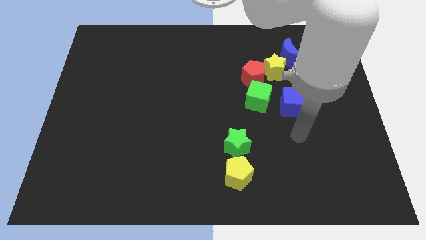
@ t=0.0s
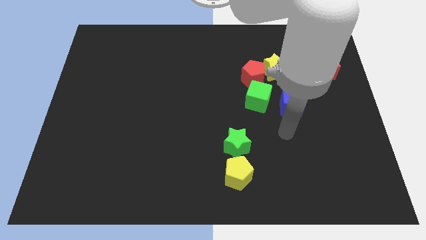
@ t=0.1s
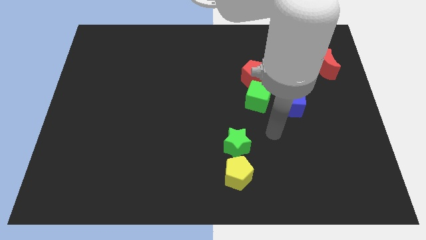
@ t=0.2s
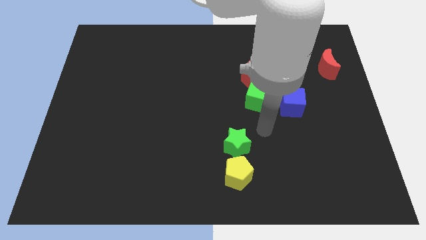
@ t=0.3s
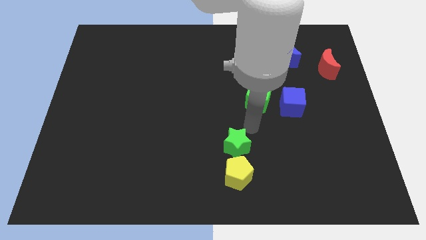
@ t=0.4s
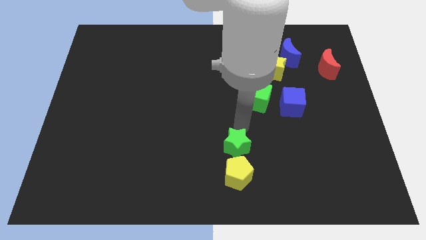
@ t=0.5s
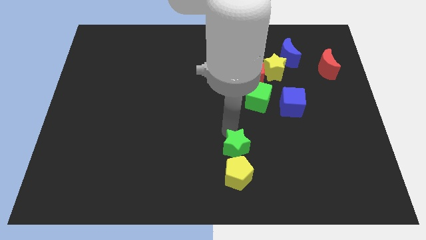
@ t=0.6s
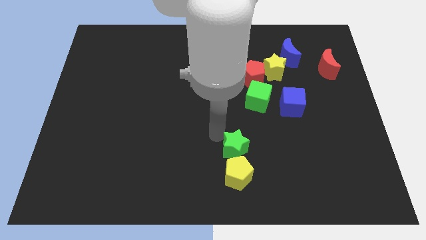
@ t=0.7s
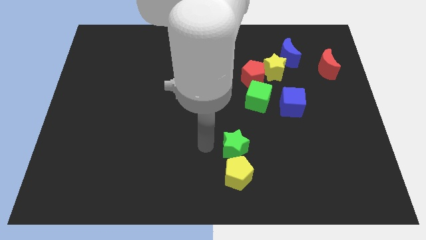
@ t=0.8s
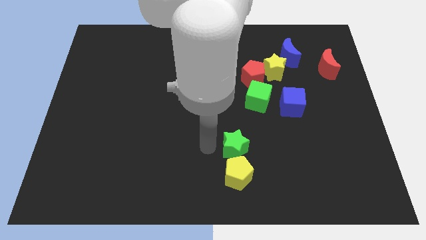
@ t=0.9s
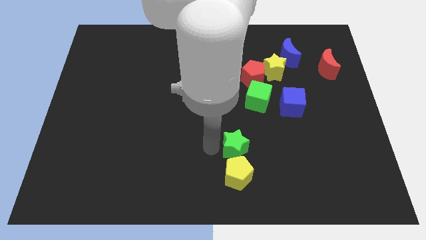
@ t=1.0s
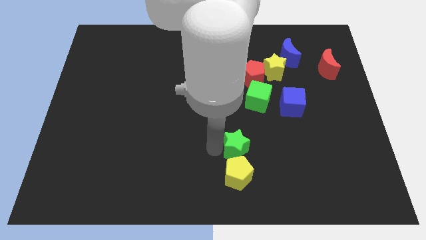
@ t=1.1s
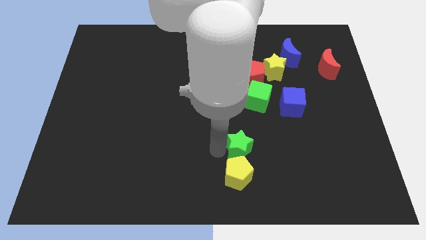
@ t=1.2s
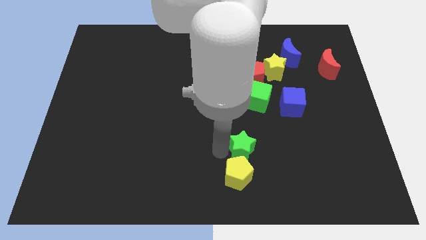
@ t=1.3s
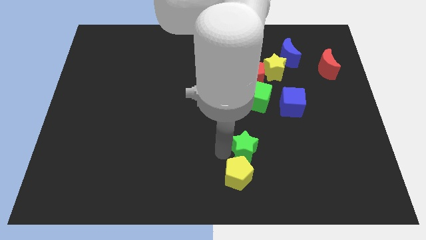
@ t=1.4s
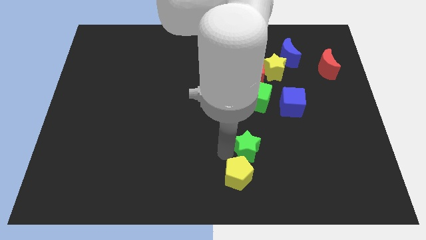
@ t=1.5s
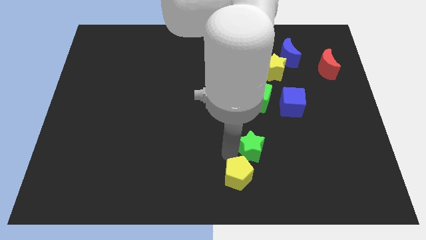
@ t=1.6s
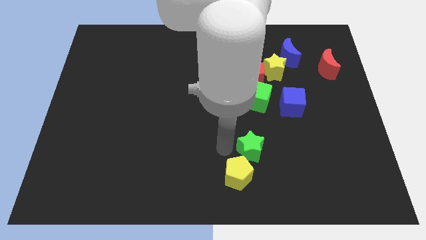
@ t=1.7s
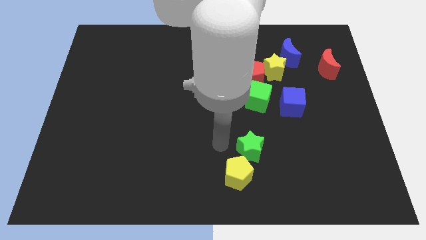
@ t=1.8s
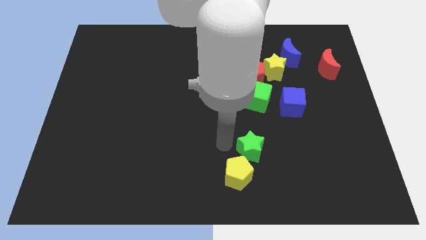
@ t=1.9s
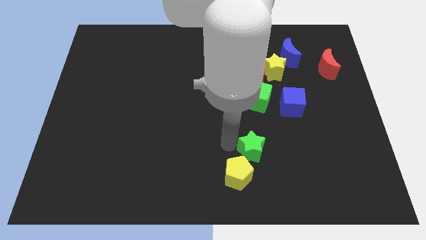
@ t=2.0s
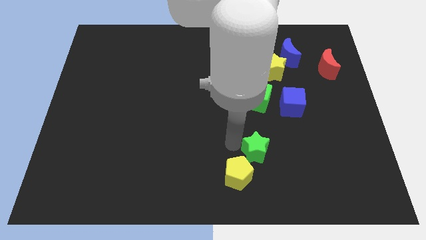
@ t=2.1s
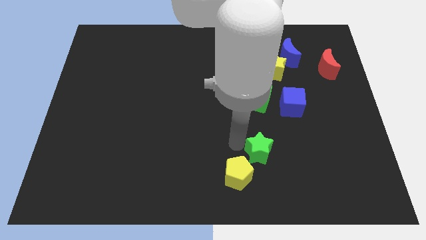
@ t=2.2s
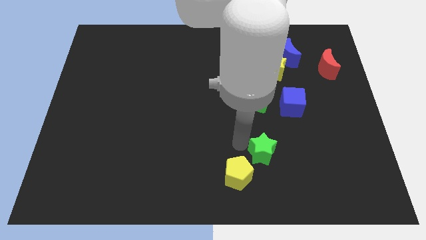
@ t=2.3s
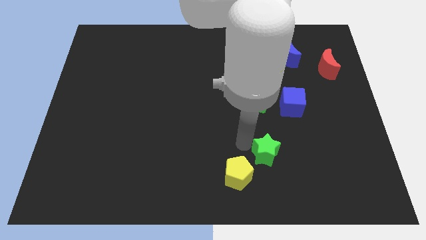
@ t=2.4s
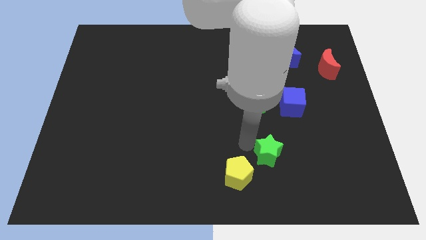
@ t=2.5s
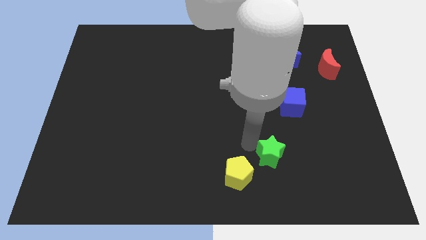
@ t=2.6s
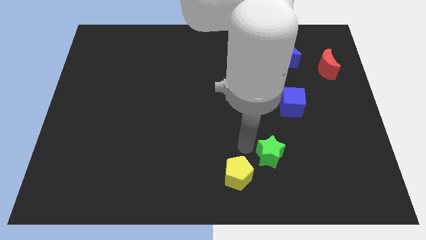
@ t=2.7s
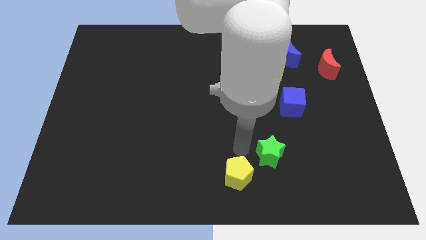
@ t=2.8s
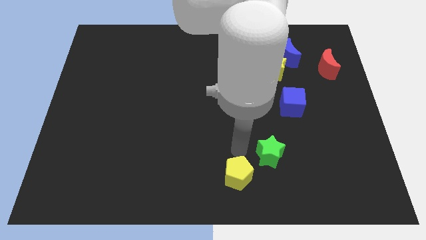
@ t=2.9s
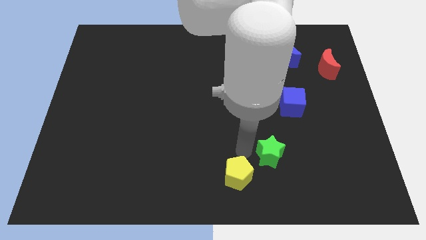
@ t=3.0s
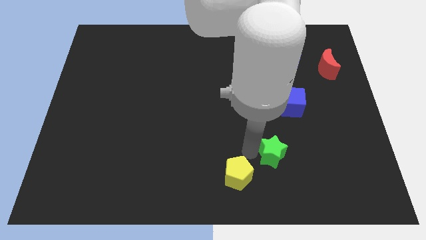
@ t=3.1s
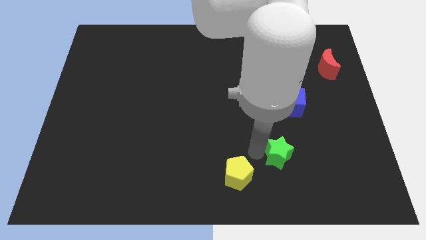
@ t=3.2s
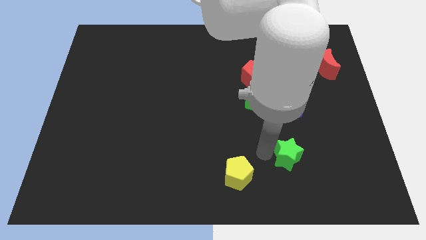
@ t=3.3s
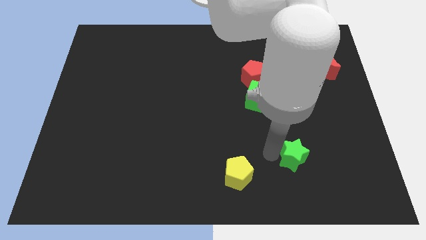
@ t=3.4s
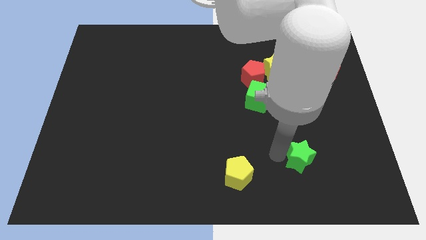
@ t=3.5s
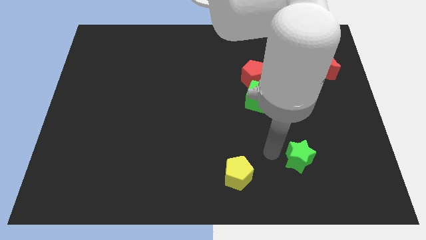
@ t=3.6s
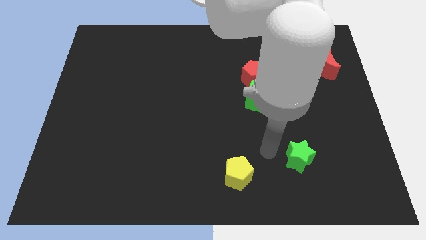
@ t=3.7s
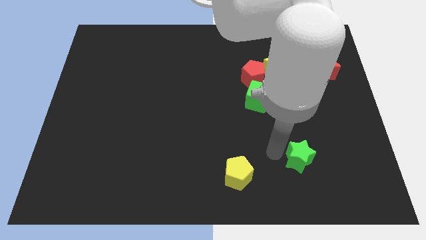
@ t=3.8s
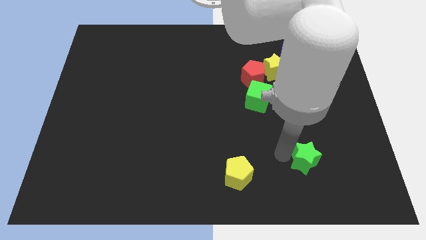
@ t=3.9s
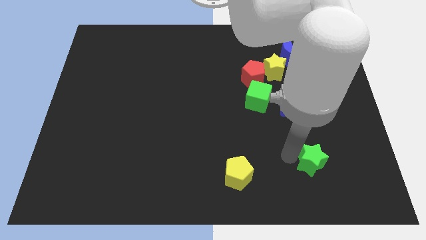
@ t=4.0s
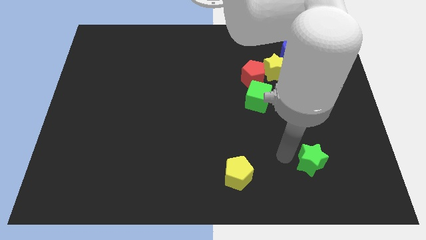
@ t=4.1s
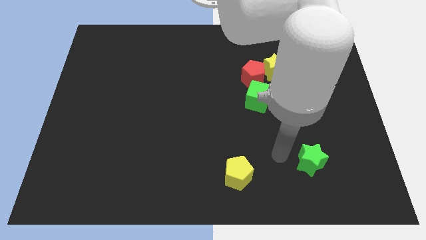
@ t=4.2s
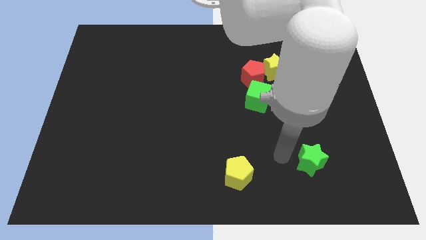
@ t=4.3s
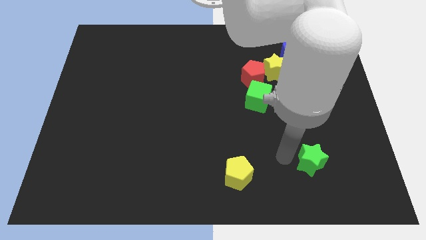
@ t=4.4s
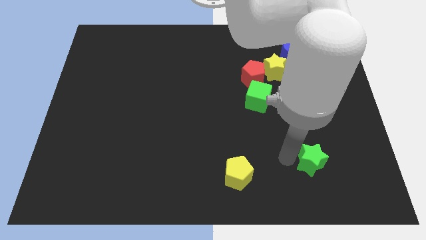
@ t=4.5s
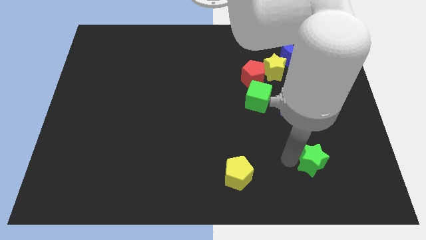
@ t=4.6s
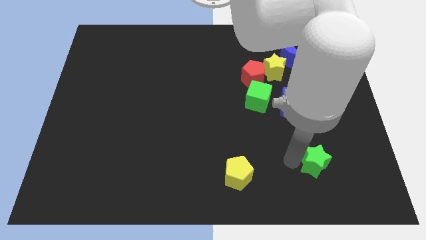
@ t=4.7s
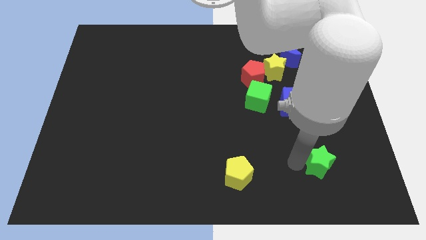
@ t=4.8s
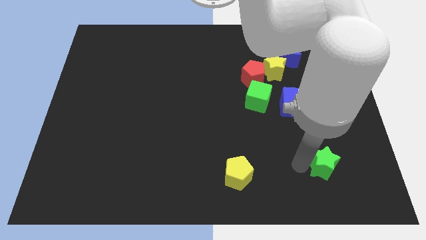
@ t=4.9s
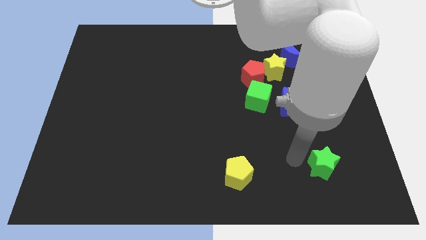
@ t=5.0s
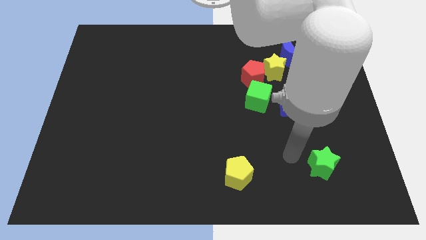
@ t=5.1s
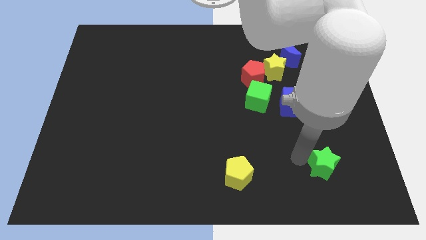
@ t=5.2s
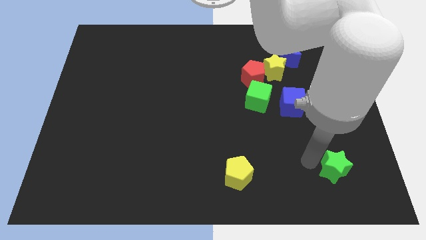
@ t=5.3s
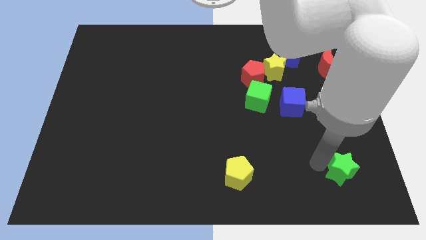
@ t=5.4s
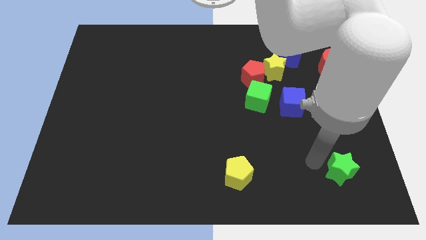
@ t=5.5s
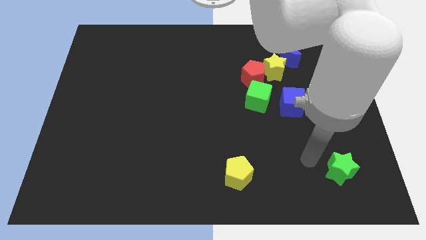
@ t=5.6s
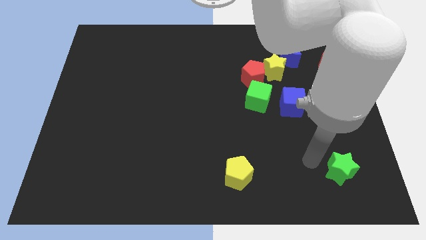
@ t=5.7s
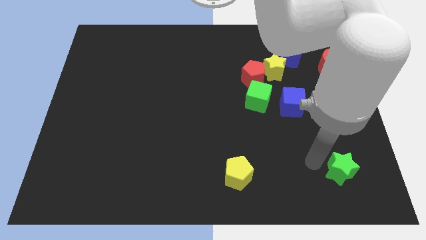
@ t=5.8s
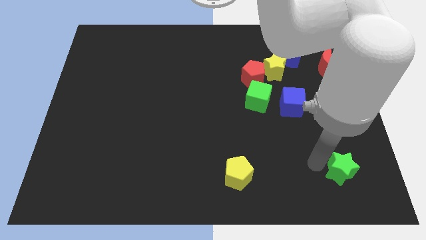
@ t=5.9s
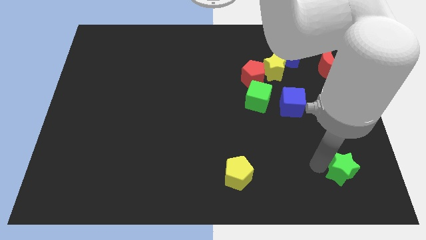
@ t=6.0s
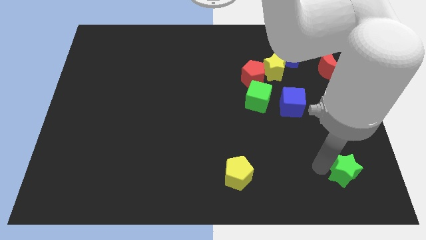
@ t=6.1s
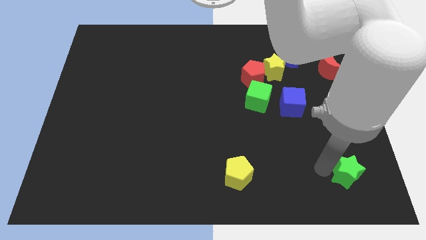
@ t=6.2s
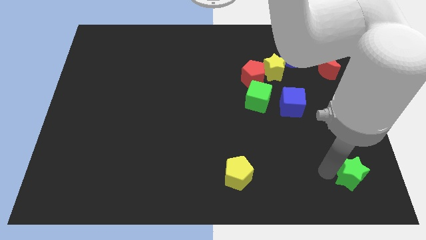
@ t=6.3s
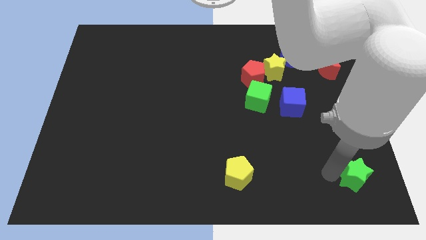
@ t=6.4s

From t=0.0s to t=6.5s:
push the green star to the bottom right of the board
